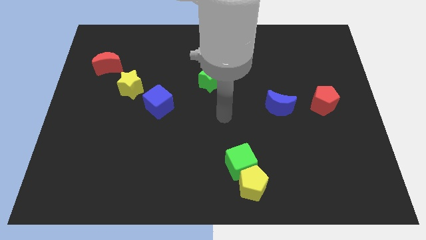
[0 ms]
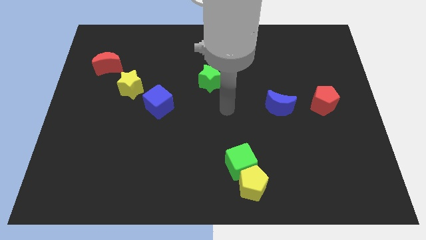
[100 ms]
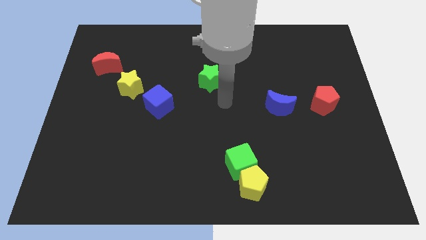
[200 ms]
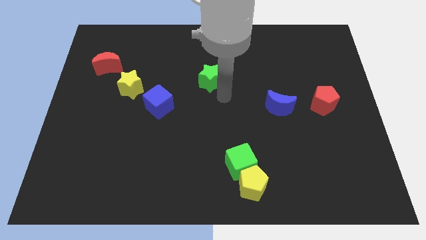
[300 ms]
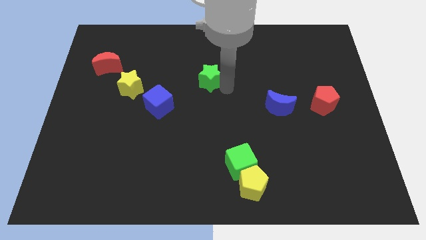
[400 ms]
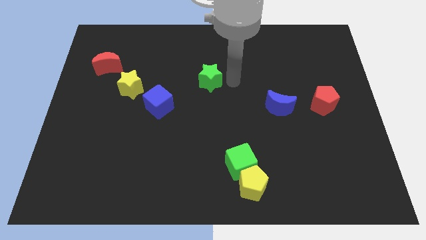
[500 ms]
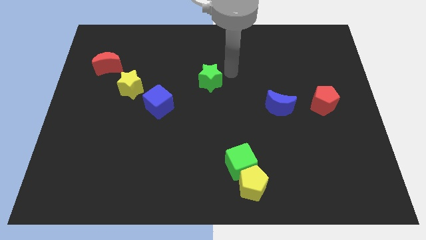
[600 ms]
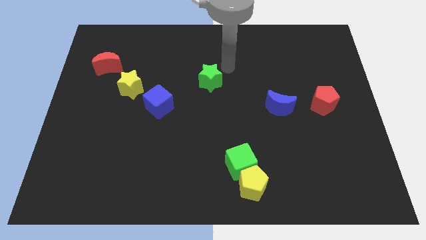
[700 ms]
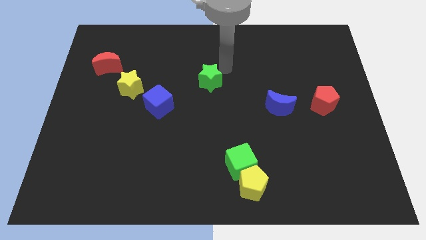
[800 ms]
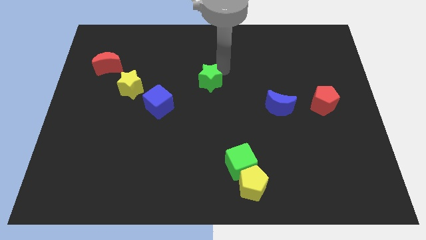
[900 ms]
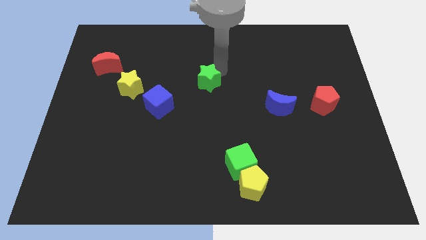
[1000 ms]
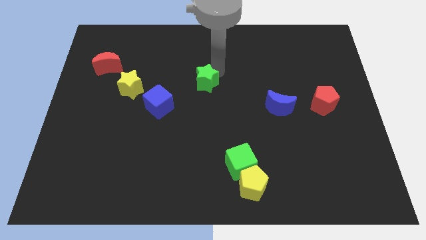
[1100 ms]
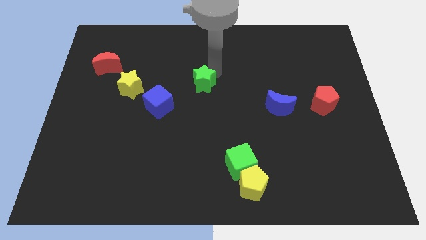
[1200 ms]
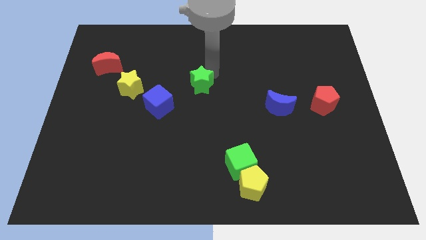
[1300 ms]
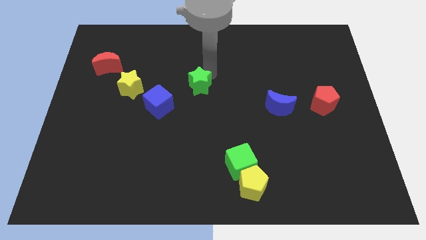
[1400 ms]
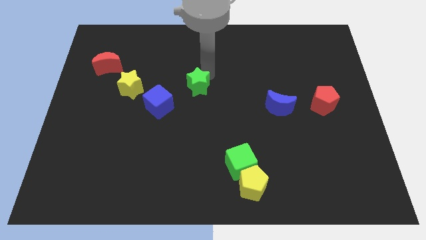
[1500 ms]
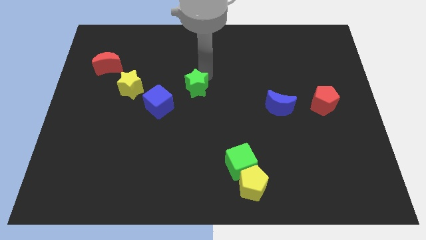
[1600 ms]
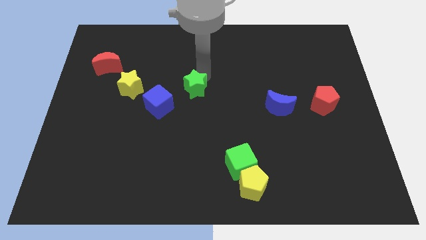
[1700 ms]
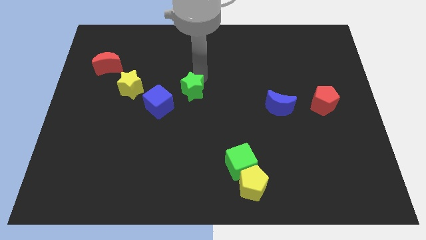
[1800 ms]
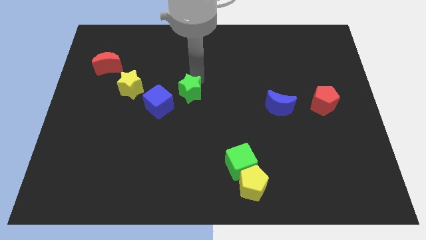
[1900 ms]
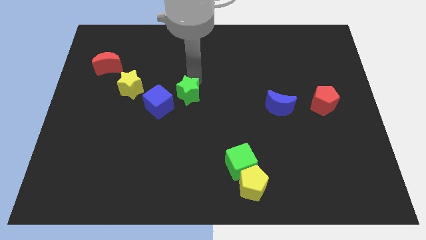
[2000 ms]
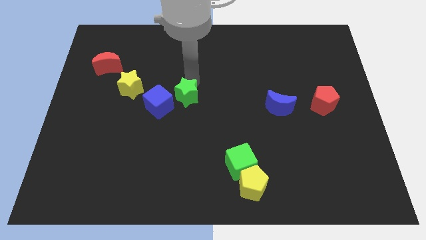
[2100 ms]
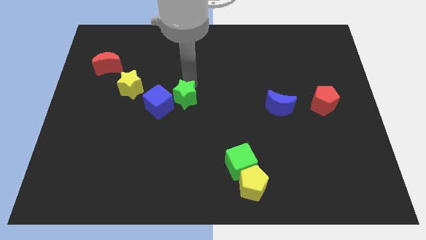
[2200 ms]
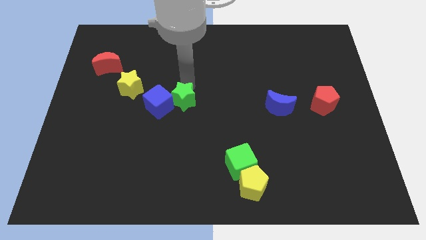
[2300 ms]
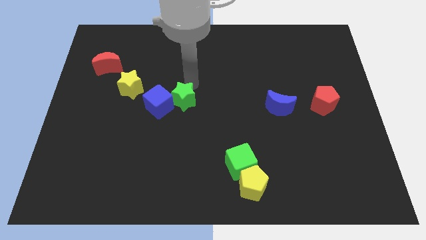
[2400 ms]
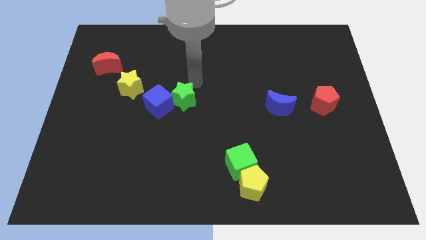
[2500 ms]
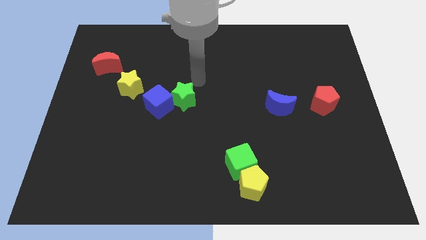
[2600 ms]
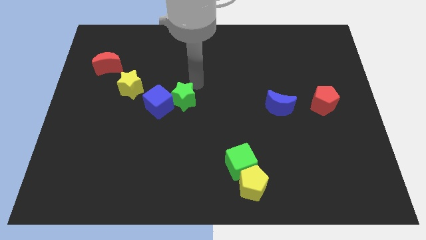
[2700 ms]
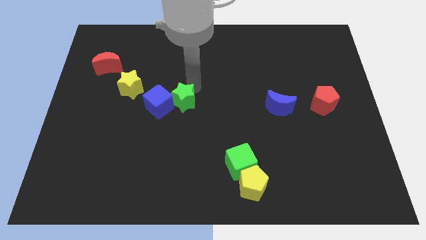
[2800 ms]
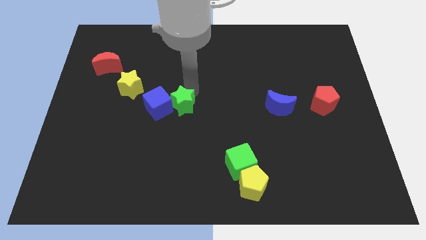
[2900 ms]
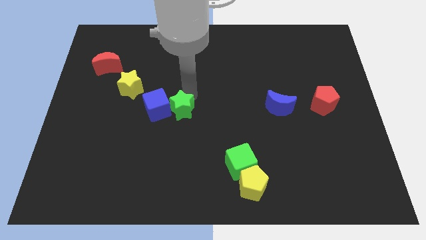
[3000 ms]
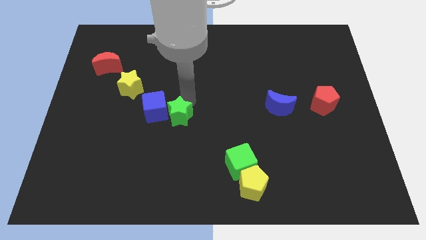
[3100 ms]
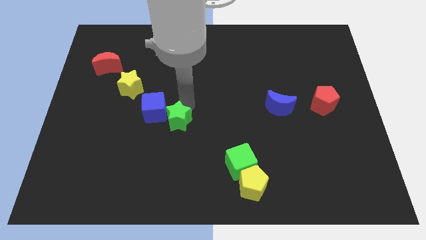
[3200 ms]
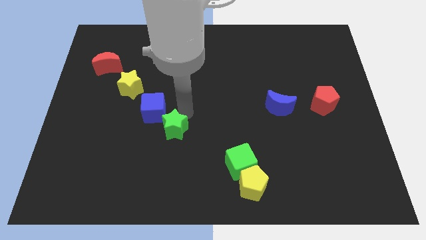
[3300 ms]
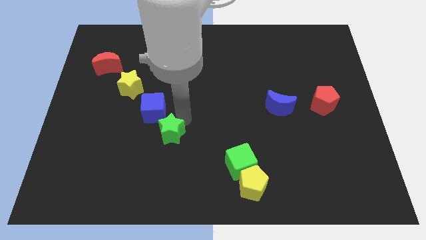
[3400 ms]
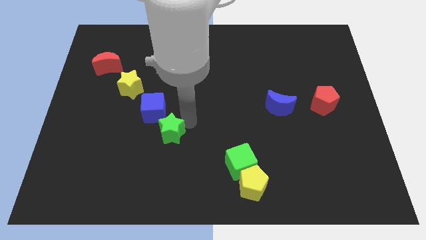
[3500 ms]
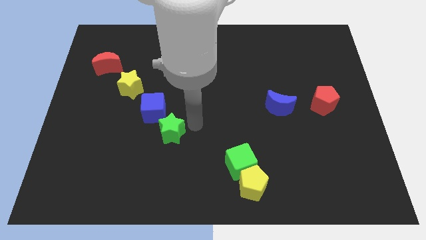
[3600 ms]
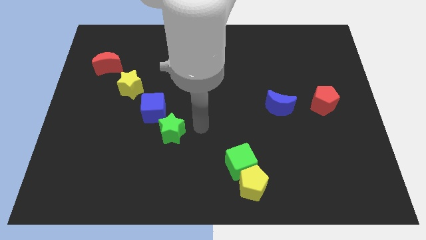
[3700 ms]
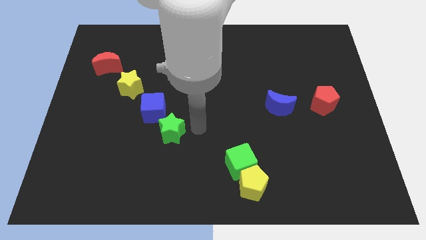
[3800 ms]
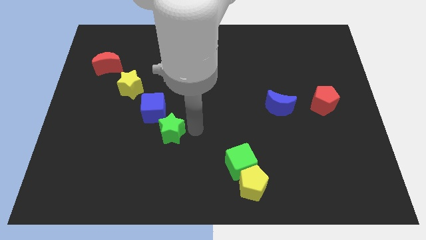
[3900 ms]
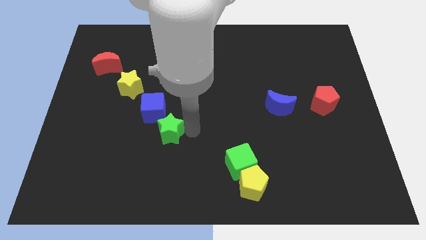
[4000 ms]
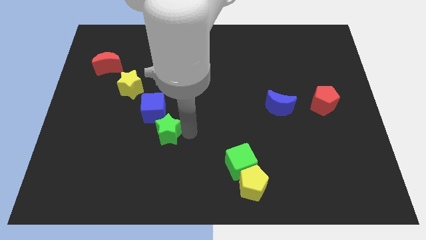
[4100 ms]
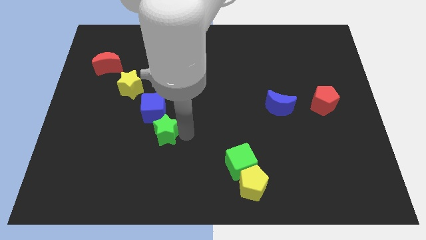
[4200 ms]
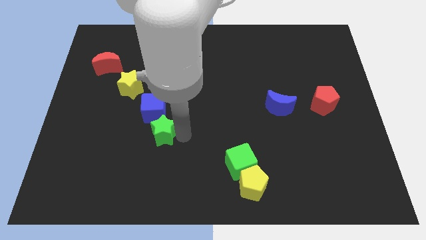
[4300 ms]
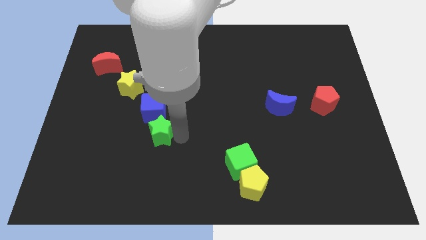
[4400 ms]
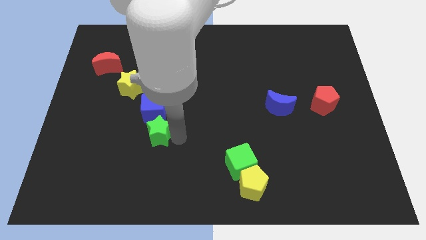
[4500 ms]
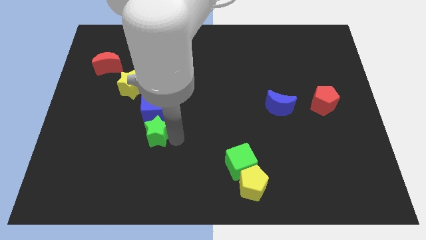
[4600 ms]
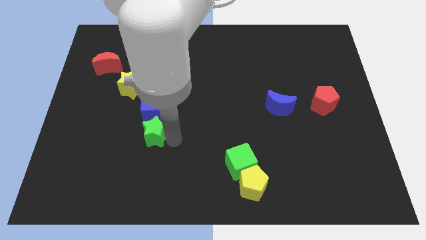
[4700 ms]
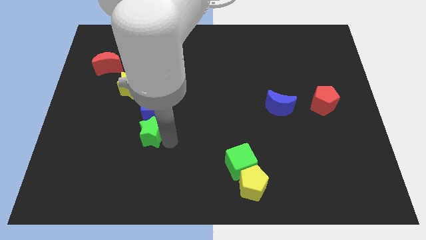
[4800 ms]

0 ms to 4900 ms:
move the green star downwards and left

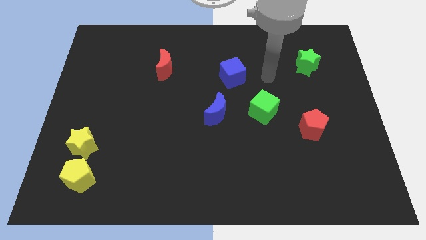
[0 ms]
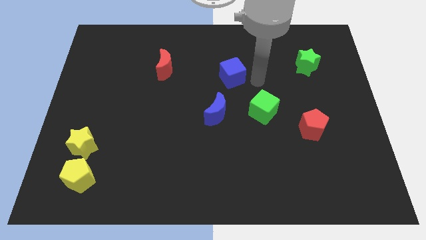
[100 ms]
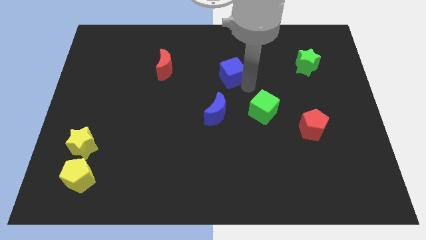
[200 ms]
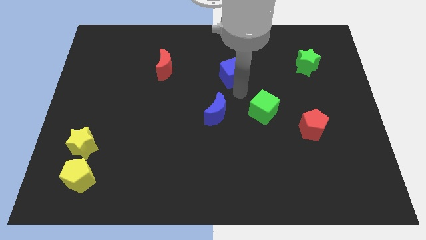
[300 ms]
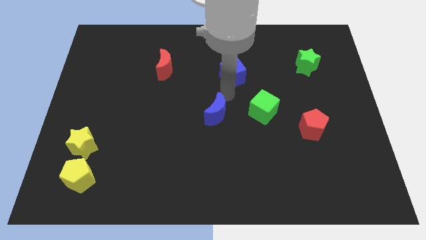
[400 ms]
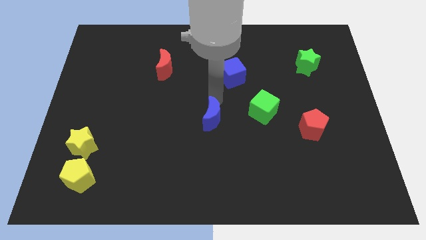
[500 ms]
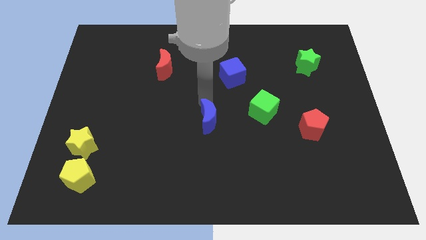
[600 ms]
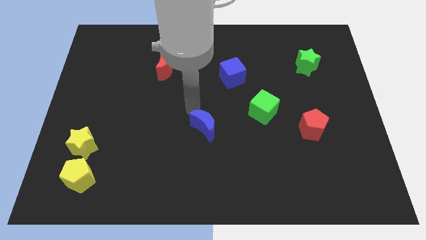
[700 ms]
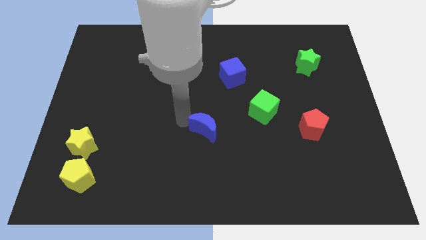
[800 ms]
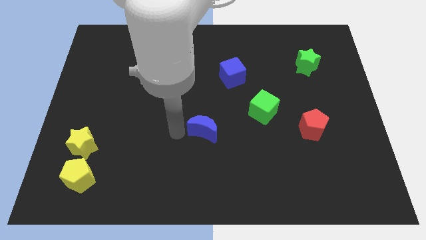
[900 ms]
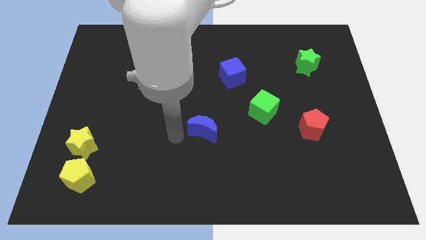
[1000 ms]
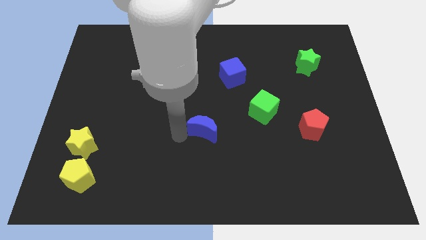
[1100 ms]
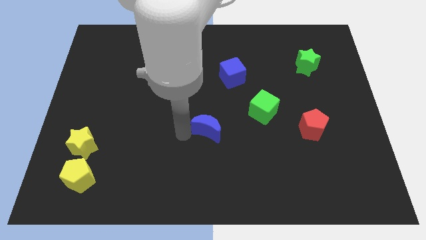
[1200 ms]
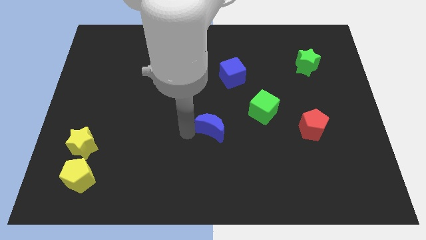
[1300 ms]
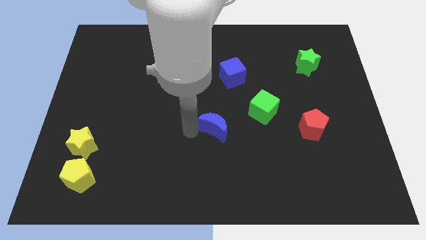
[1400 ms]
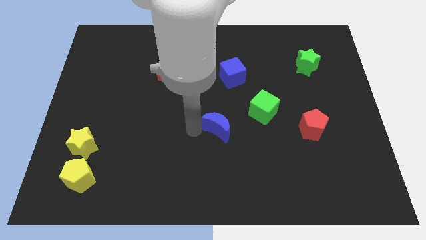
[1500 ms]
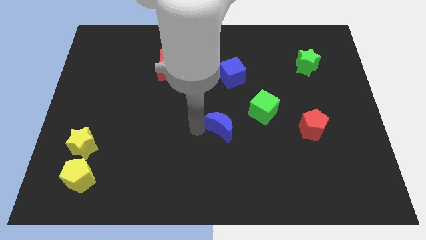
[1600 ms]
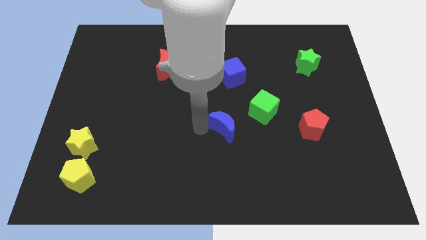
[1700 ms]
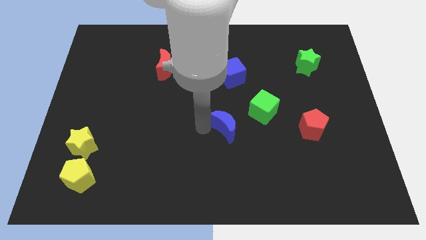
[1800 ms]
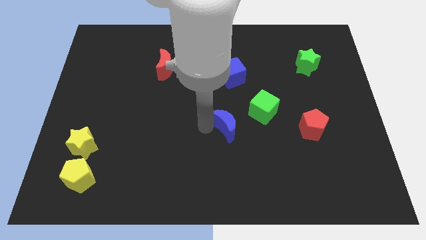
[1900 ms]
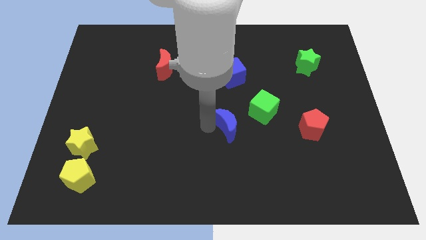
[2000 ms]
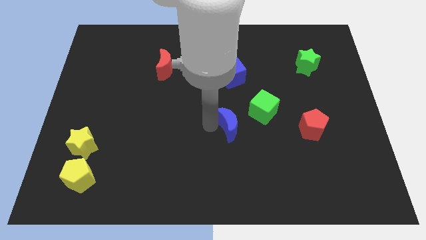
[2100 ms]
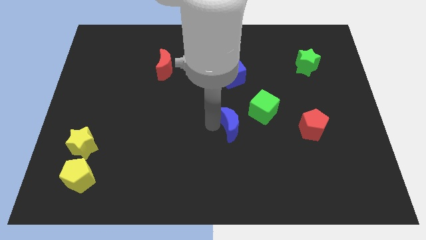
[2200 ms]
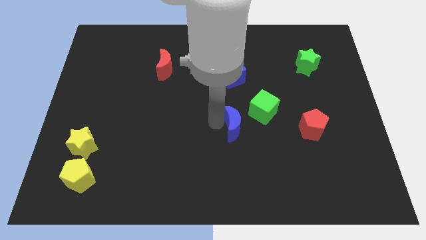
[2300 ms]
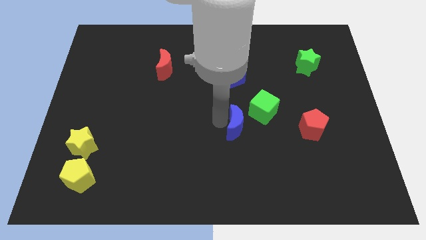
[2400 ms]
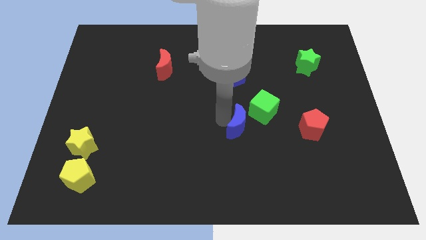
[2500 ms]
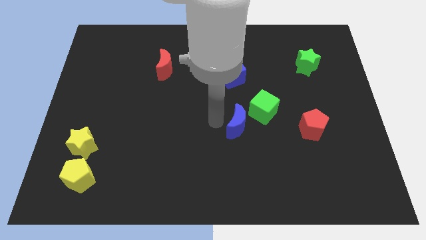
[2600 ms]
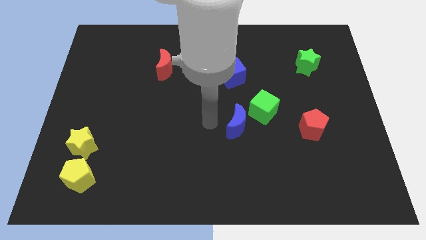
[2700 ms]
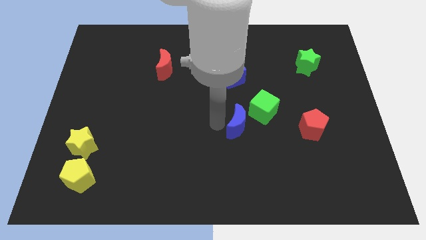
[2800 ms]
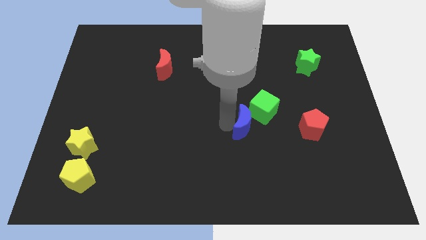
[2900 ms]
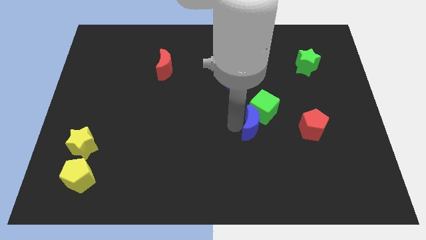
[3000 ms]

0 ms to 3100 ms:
push the blue moon a little to the right

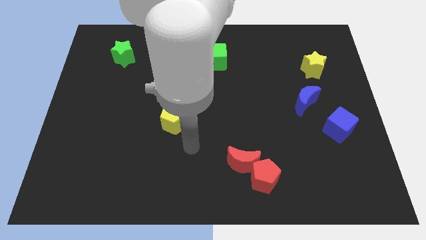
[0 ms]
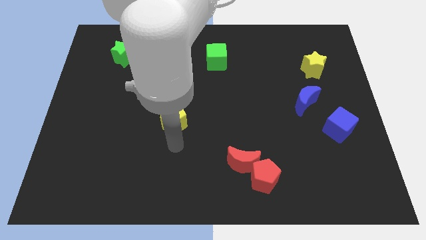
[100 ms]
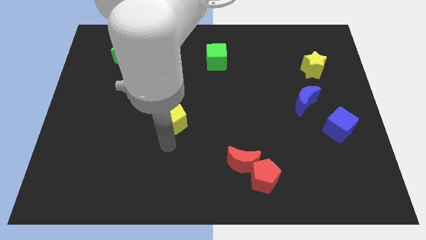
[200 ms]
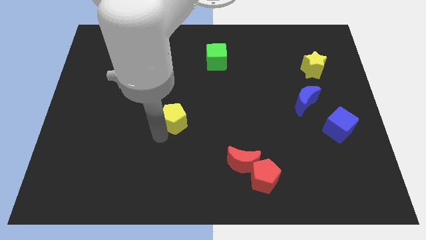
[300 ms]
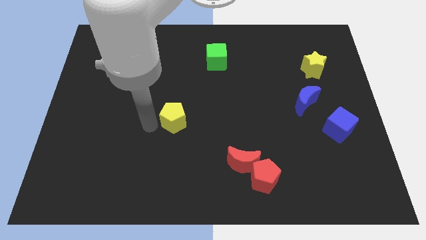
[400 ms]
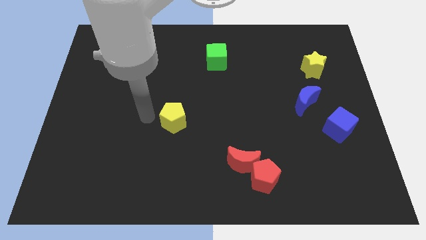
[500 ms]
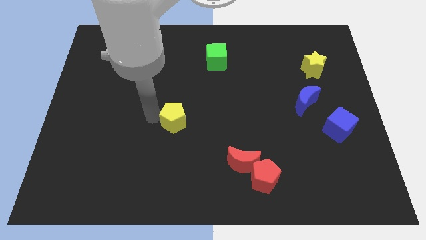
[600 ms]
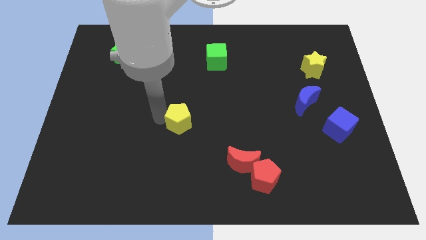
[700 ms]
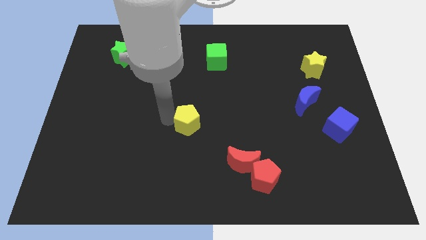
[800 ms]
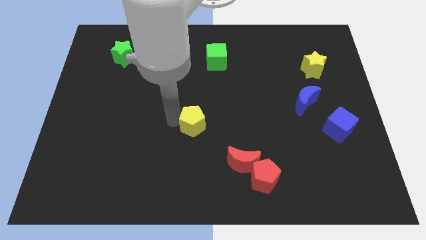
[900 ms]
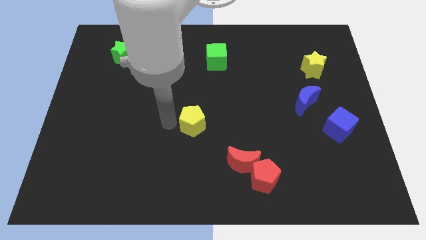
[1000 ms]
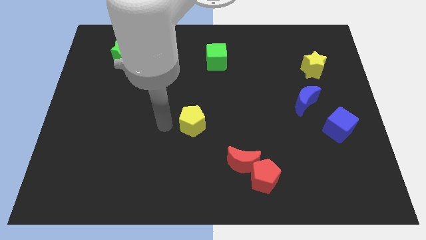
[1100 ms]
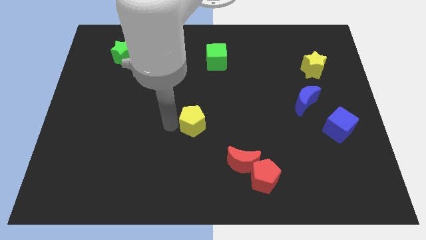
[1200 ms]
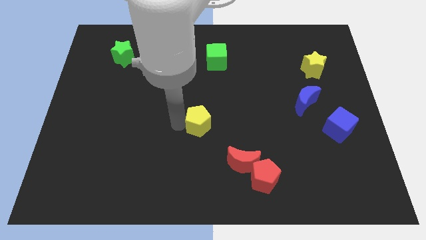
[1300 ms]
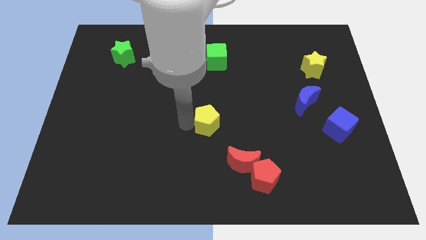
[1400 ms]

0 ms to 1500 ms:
move the yellow pentagon right a bit
